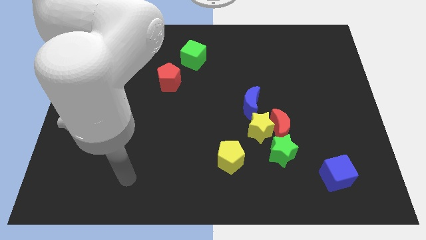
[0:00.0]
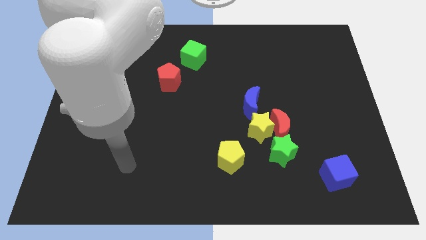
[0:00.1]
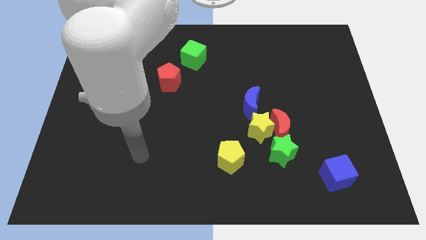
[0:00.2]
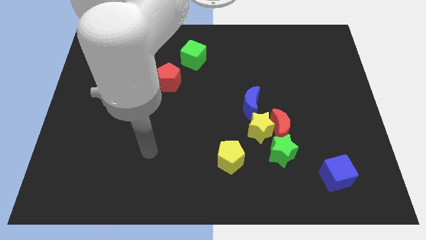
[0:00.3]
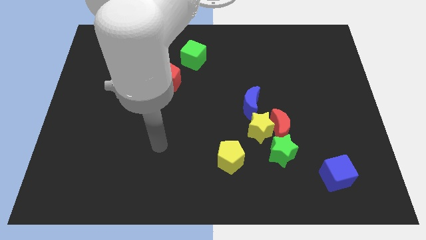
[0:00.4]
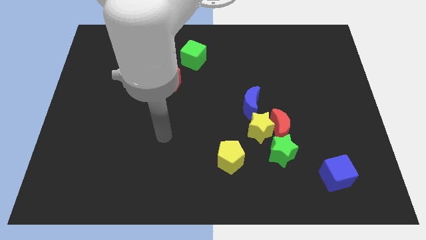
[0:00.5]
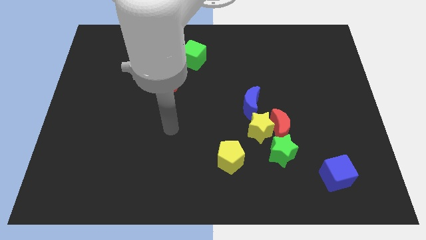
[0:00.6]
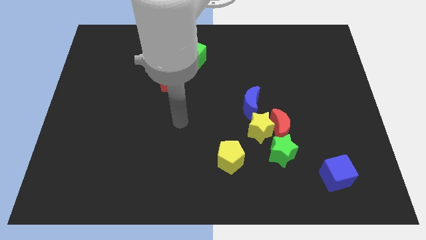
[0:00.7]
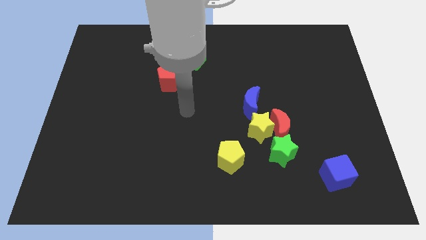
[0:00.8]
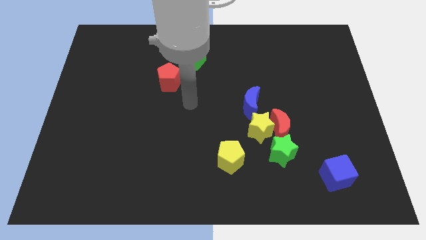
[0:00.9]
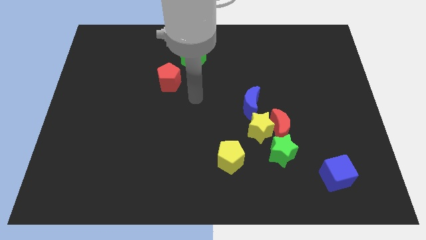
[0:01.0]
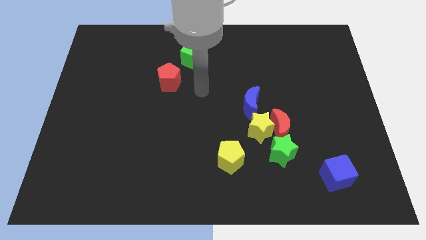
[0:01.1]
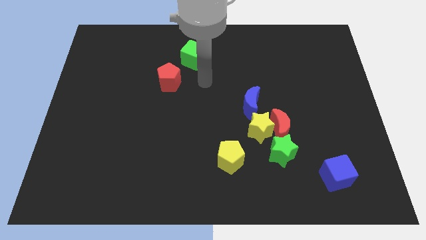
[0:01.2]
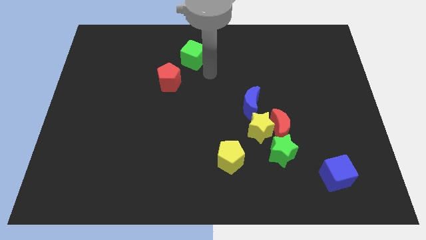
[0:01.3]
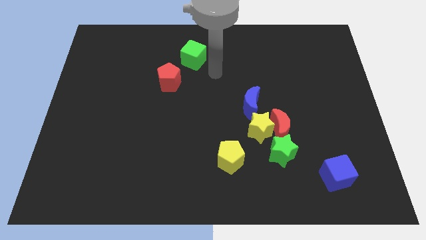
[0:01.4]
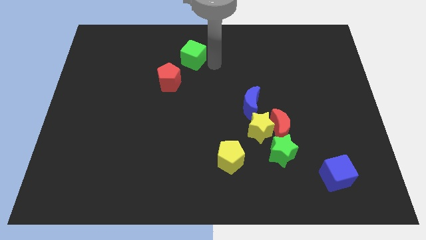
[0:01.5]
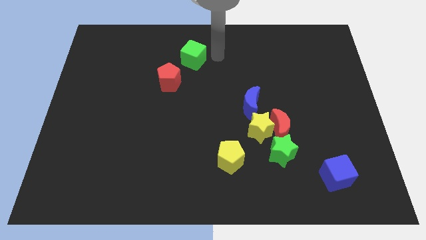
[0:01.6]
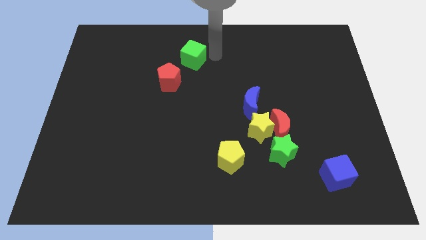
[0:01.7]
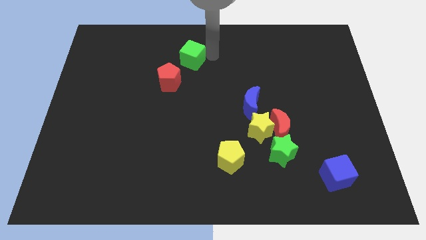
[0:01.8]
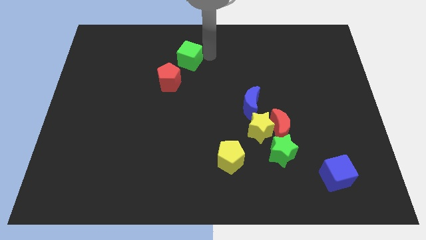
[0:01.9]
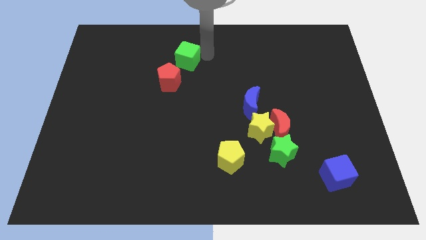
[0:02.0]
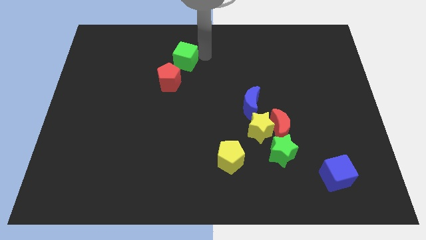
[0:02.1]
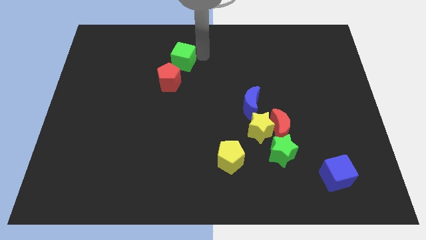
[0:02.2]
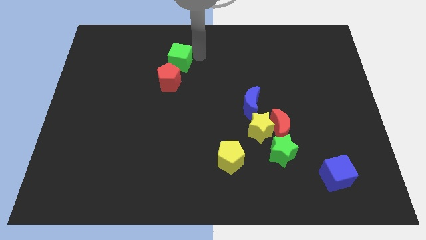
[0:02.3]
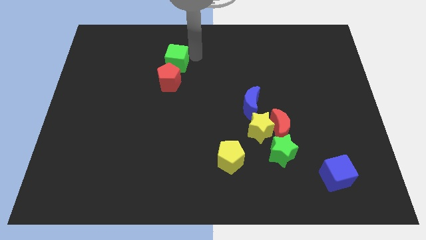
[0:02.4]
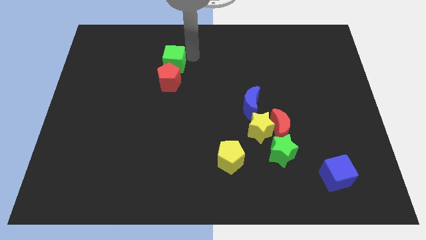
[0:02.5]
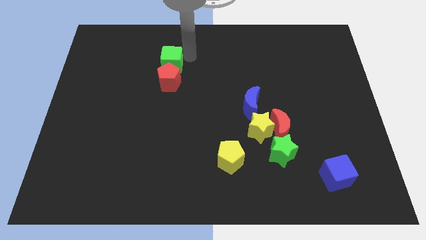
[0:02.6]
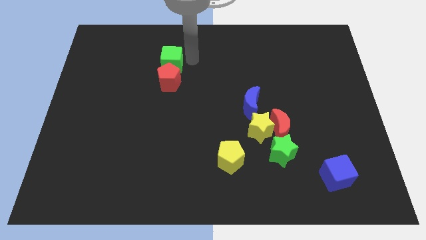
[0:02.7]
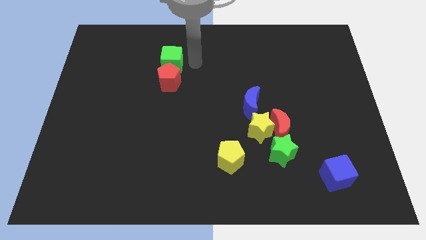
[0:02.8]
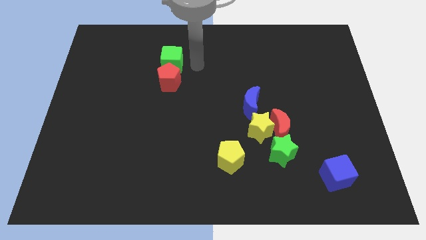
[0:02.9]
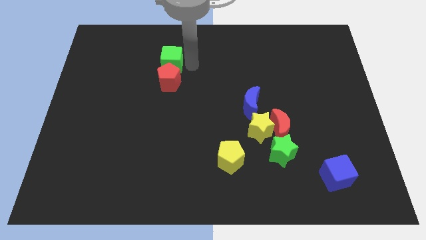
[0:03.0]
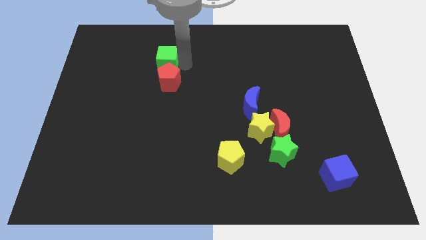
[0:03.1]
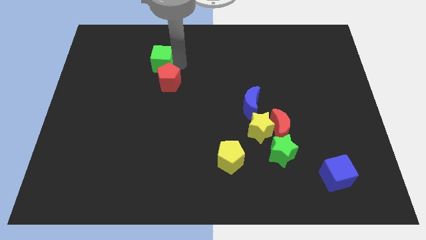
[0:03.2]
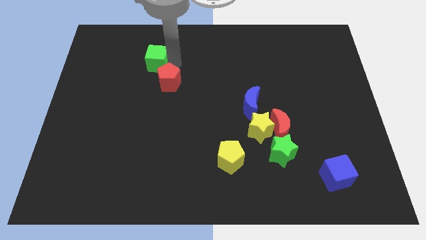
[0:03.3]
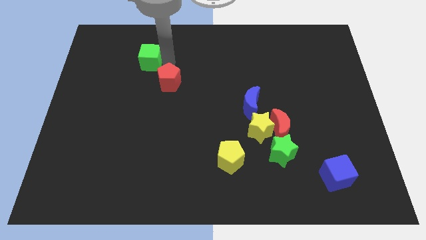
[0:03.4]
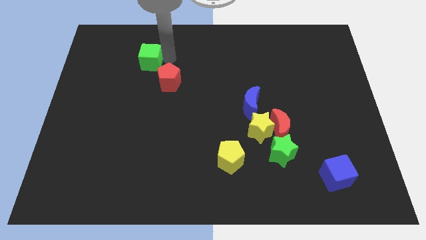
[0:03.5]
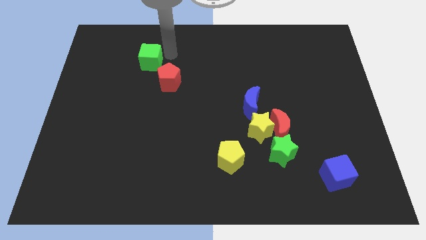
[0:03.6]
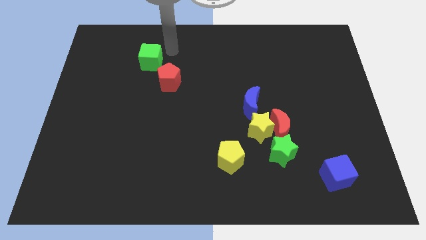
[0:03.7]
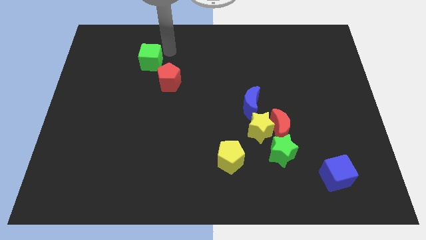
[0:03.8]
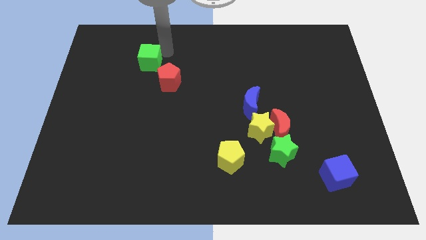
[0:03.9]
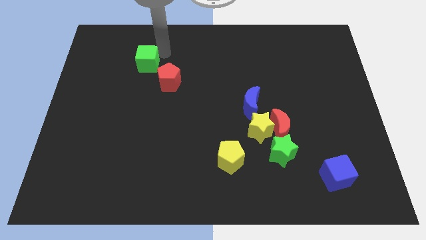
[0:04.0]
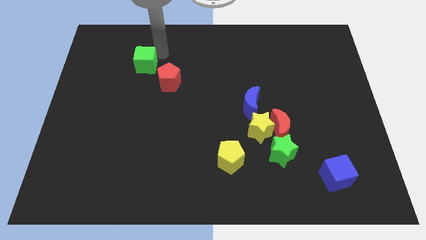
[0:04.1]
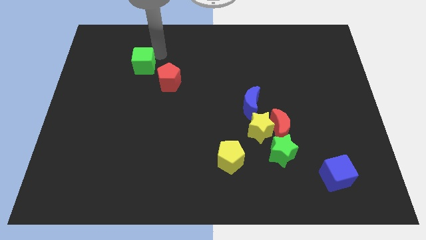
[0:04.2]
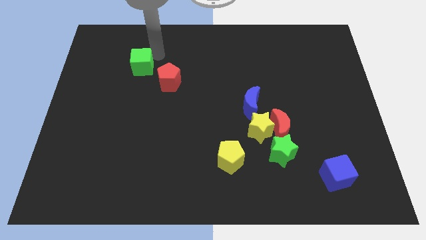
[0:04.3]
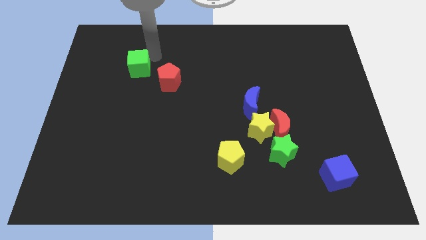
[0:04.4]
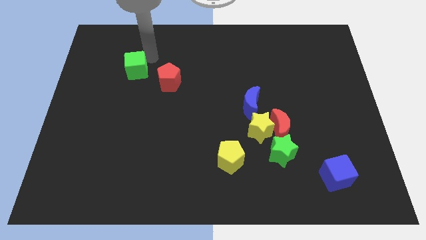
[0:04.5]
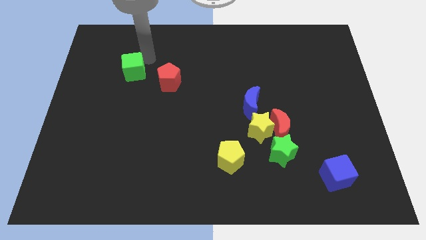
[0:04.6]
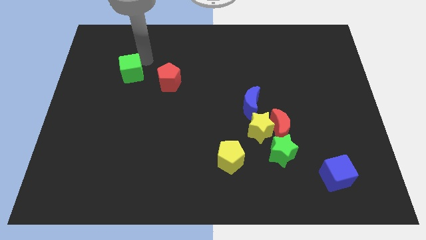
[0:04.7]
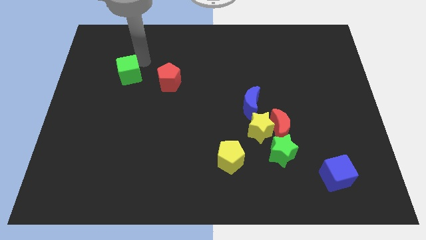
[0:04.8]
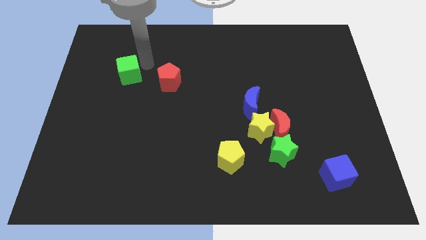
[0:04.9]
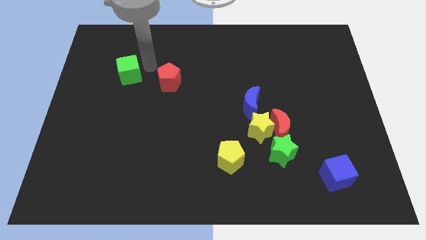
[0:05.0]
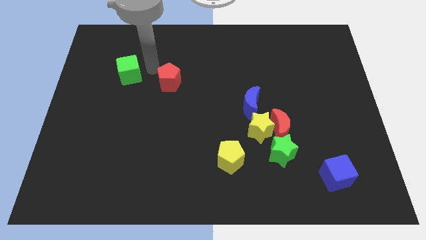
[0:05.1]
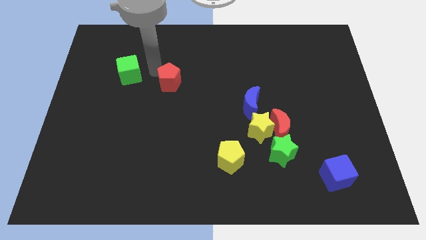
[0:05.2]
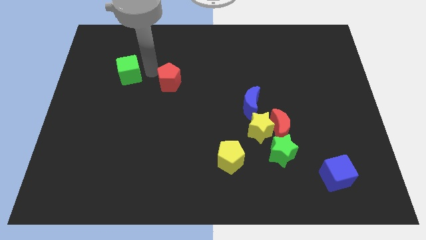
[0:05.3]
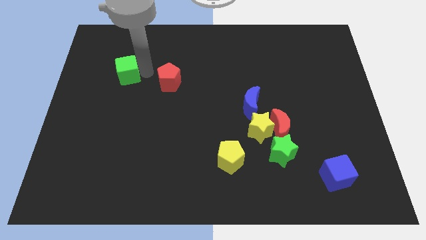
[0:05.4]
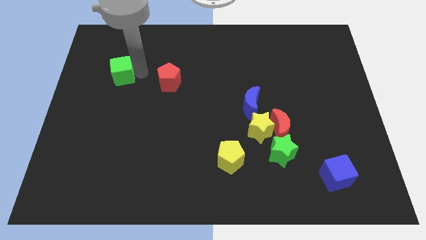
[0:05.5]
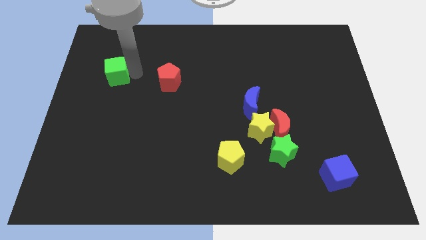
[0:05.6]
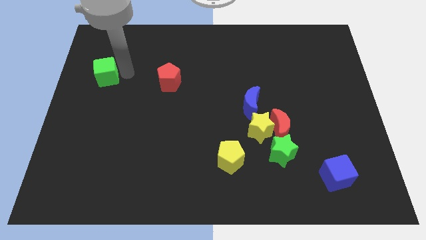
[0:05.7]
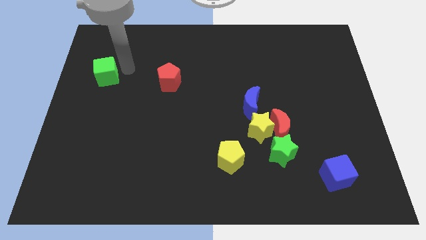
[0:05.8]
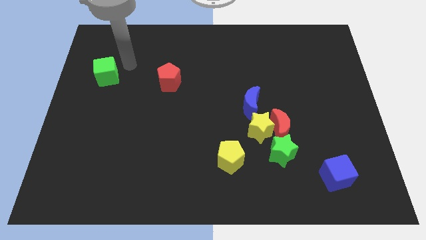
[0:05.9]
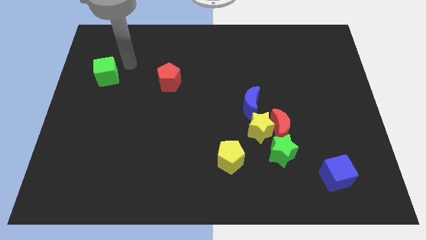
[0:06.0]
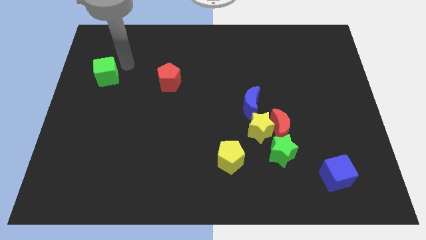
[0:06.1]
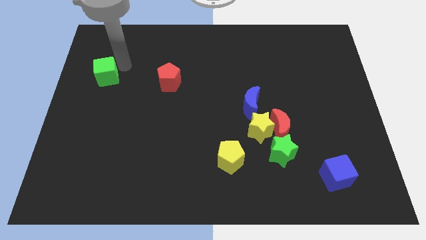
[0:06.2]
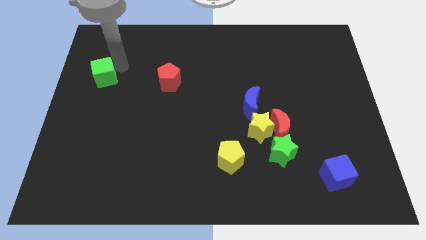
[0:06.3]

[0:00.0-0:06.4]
push the green cube to the center left

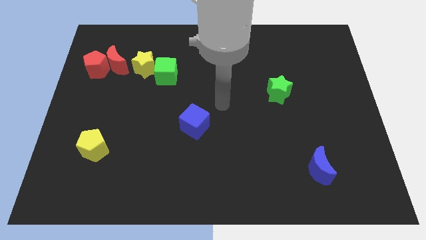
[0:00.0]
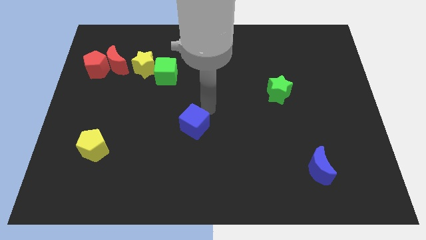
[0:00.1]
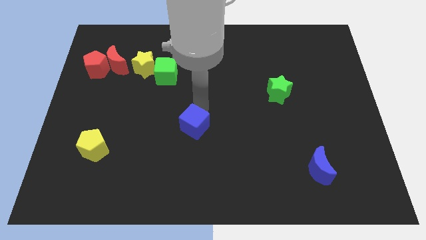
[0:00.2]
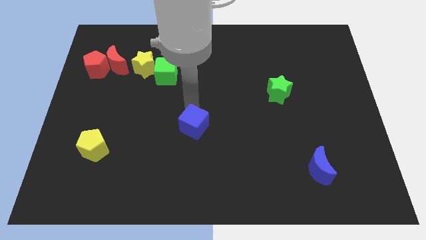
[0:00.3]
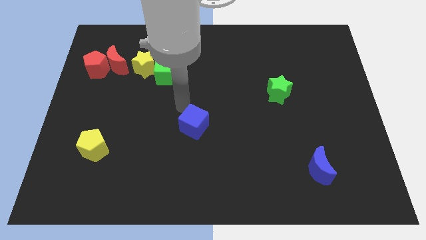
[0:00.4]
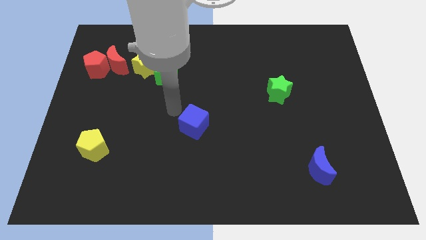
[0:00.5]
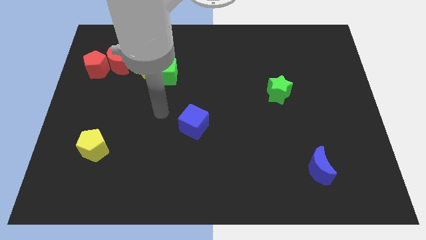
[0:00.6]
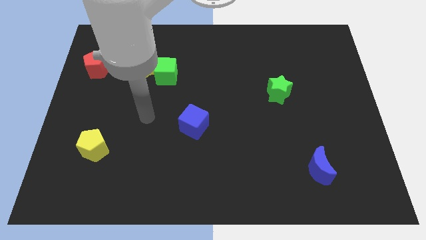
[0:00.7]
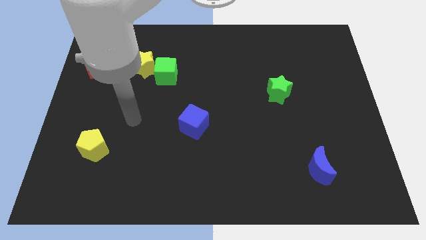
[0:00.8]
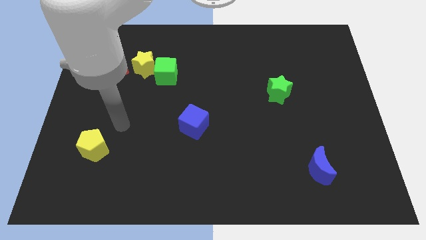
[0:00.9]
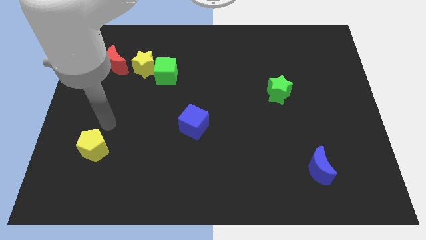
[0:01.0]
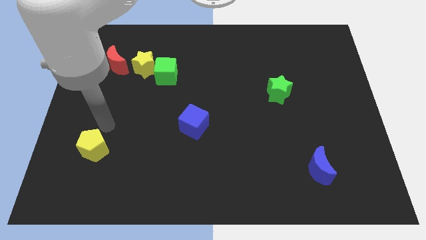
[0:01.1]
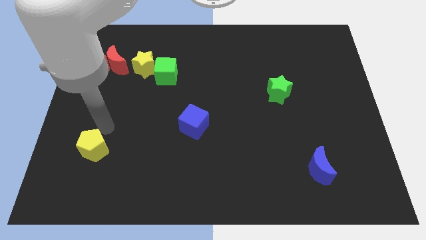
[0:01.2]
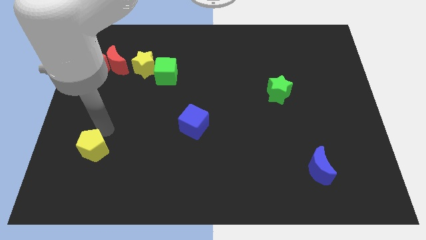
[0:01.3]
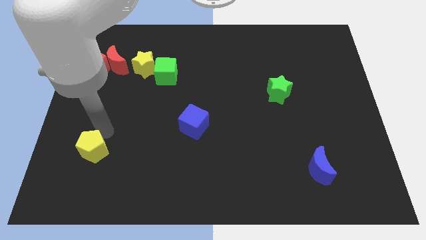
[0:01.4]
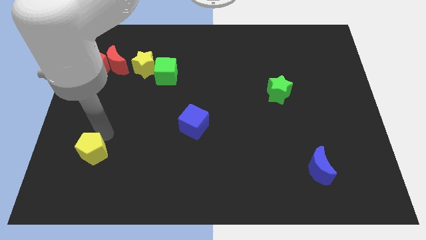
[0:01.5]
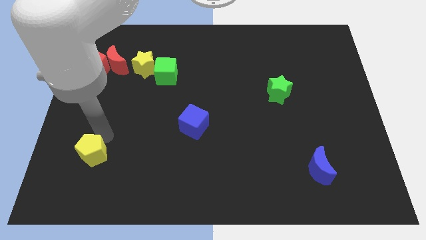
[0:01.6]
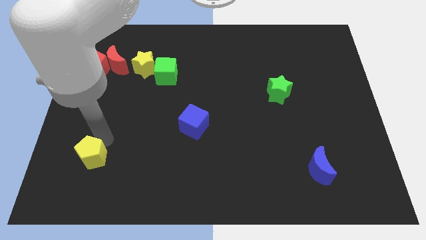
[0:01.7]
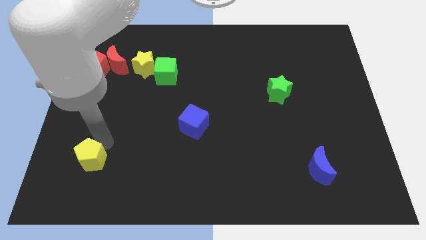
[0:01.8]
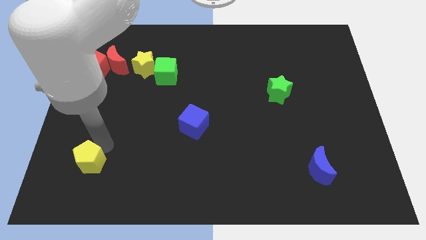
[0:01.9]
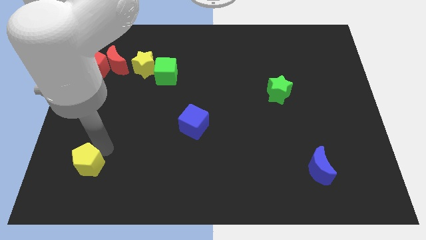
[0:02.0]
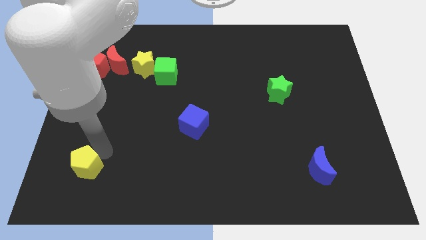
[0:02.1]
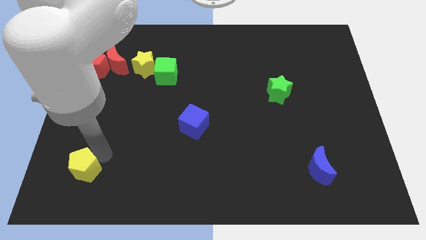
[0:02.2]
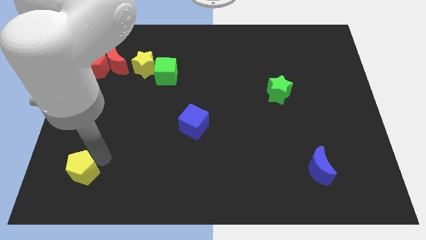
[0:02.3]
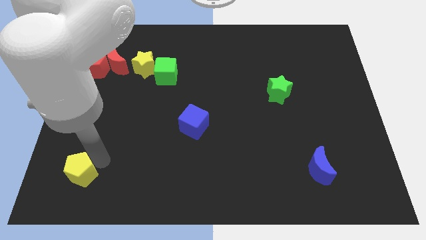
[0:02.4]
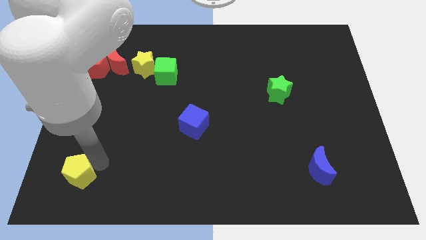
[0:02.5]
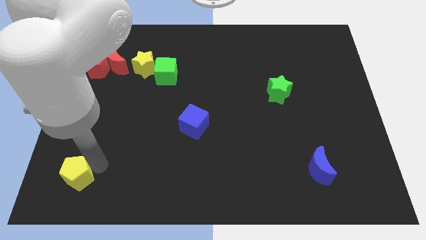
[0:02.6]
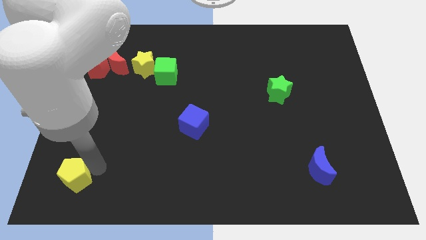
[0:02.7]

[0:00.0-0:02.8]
put the yellow pentagon to the bottom left corner
